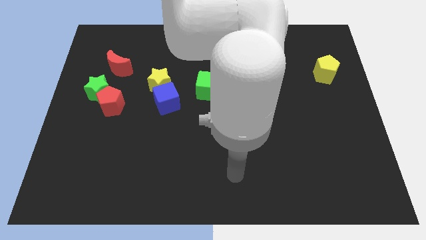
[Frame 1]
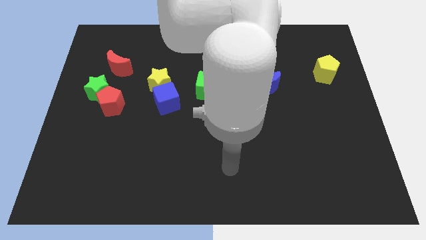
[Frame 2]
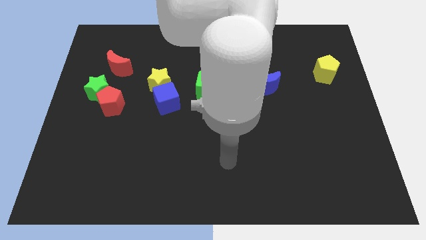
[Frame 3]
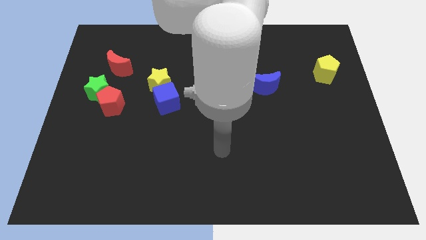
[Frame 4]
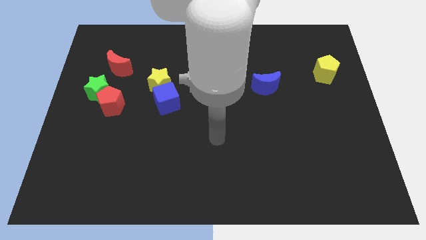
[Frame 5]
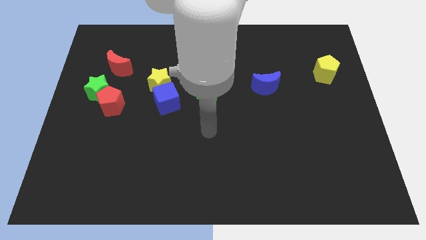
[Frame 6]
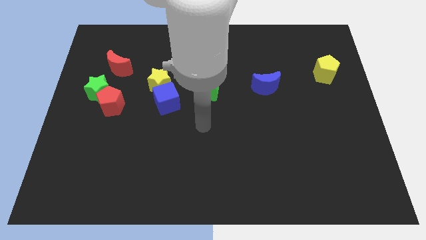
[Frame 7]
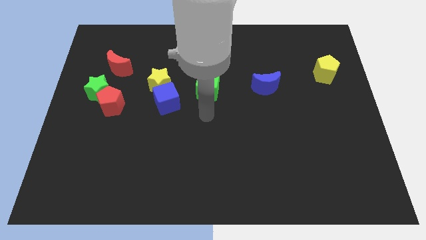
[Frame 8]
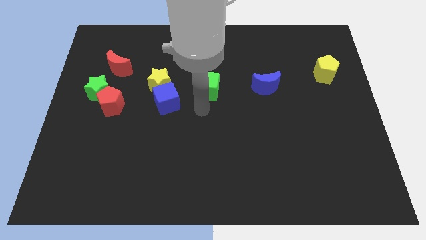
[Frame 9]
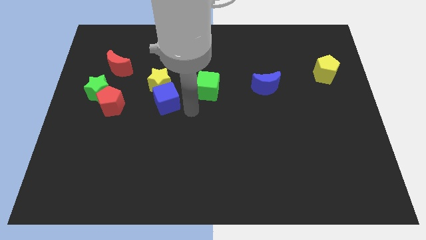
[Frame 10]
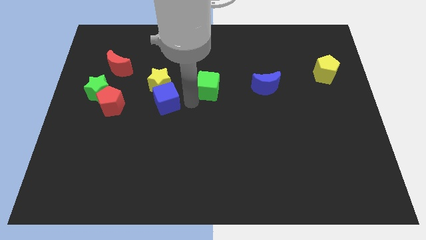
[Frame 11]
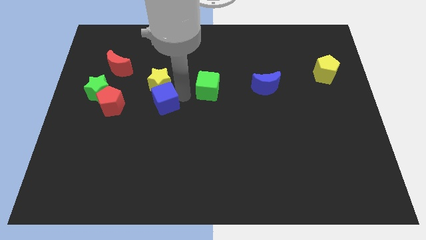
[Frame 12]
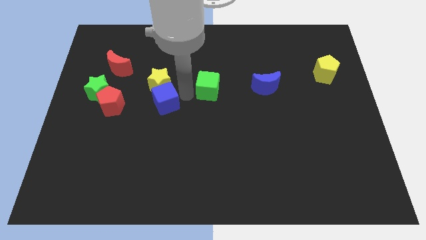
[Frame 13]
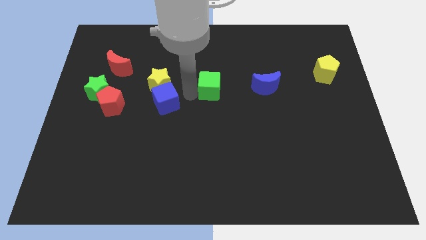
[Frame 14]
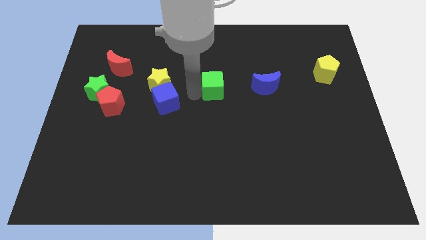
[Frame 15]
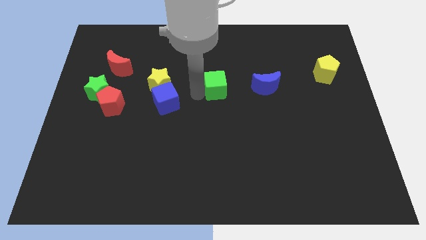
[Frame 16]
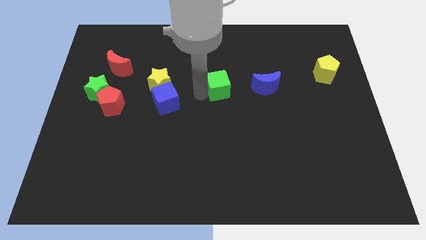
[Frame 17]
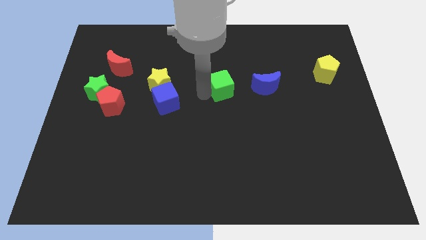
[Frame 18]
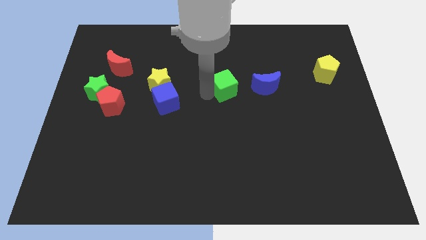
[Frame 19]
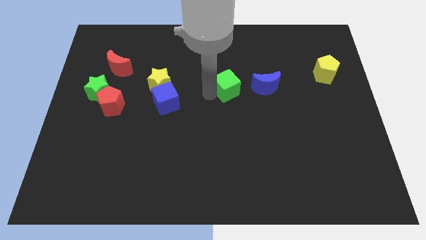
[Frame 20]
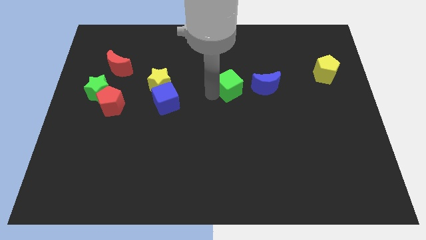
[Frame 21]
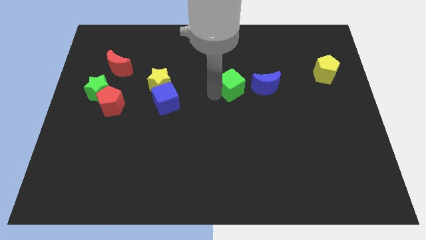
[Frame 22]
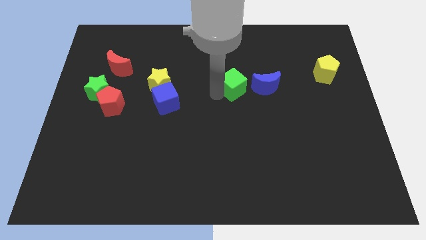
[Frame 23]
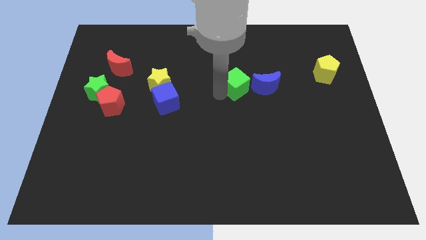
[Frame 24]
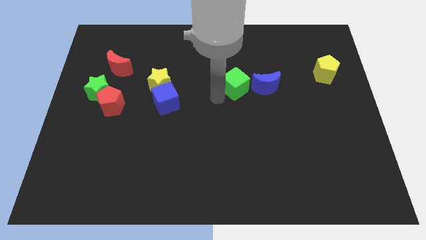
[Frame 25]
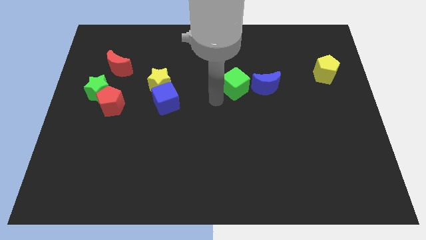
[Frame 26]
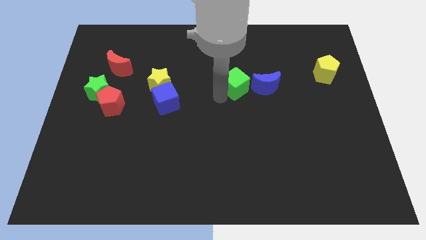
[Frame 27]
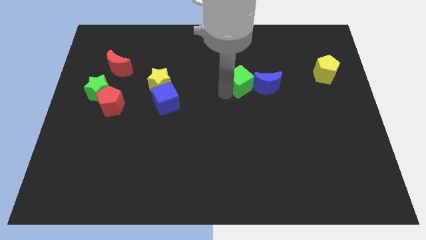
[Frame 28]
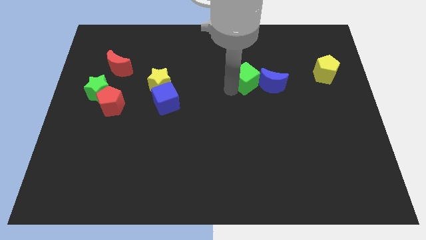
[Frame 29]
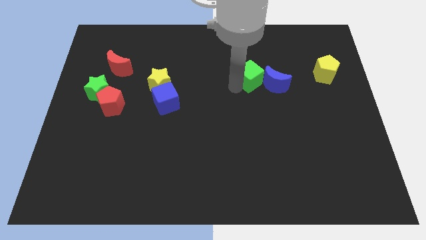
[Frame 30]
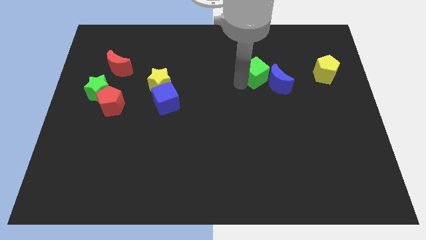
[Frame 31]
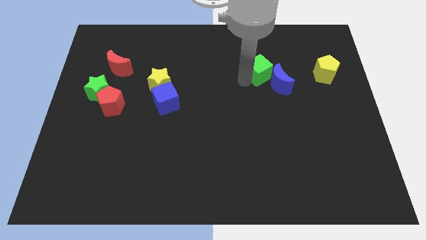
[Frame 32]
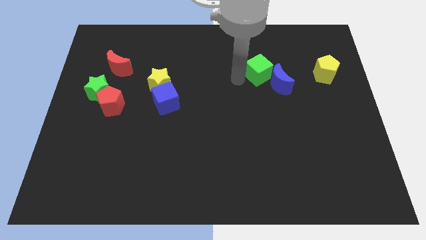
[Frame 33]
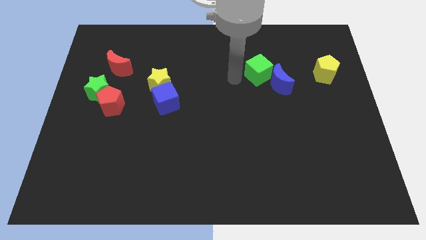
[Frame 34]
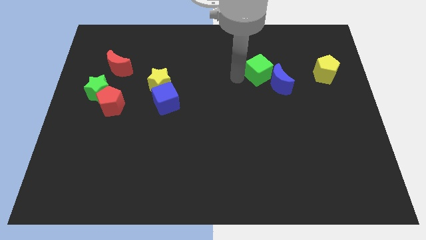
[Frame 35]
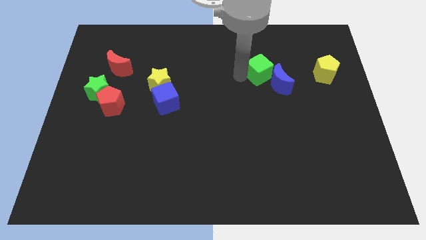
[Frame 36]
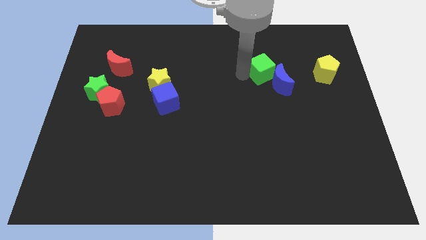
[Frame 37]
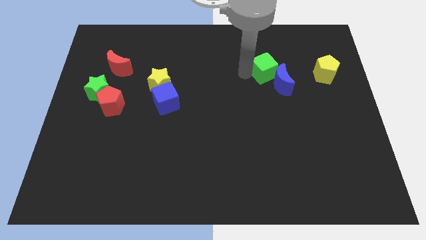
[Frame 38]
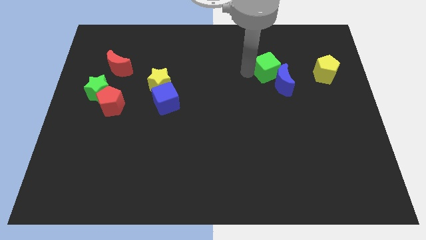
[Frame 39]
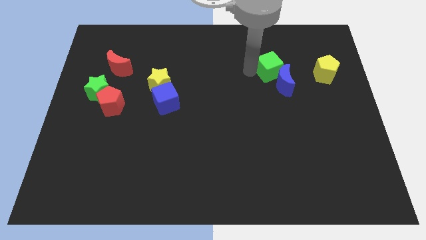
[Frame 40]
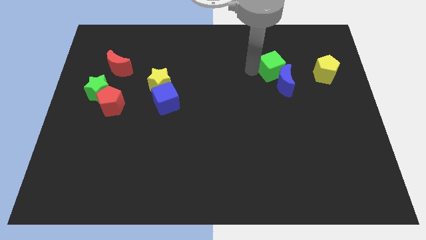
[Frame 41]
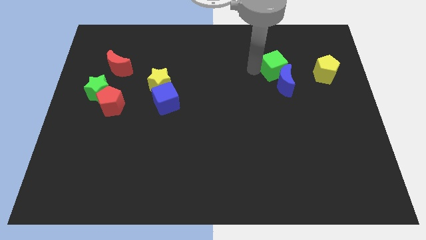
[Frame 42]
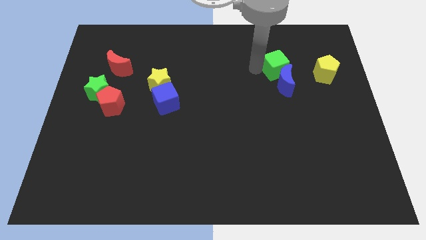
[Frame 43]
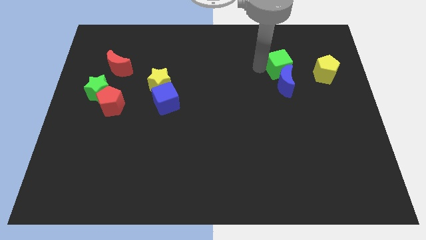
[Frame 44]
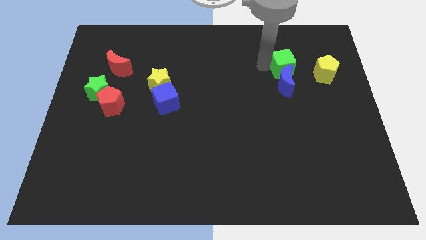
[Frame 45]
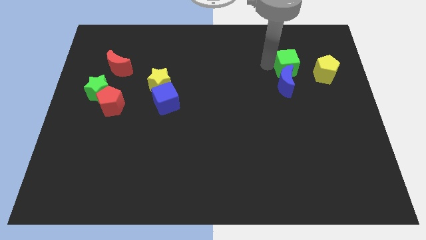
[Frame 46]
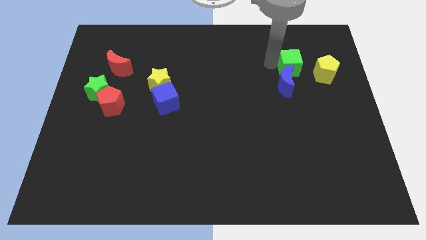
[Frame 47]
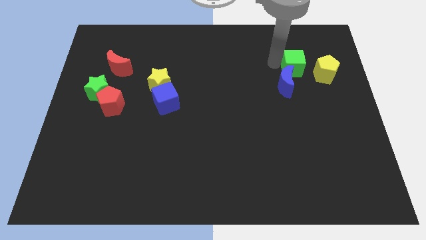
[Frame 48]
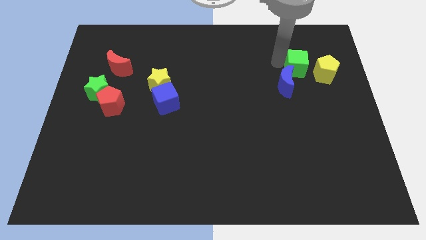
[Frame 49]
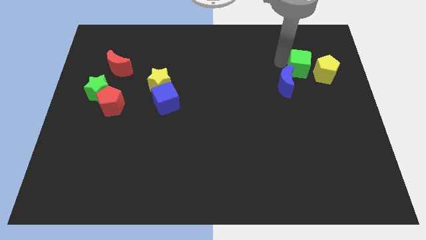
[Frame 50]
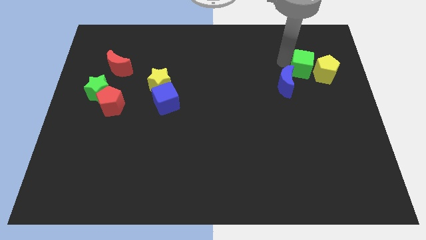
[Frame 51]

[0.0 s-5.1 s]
slide the green cube next to the yellow pentagon

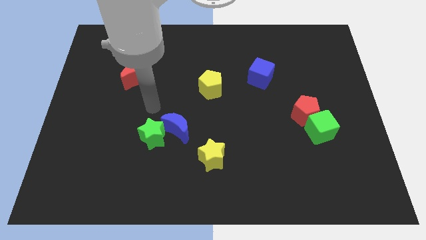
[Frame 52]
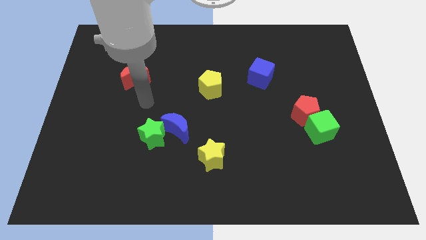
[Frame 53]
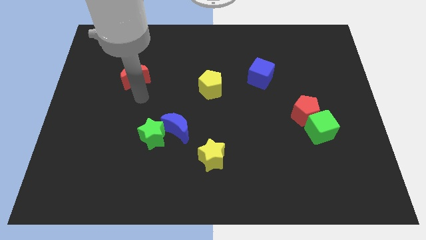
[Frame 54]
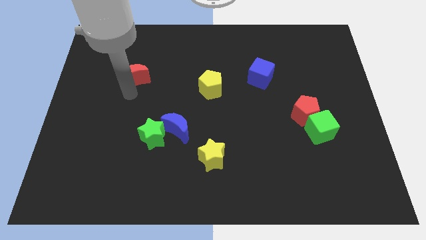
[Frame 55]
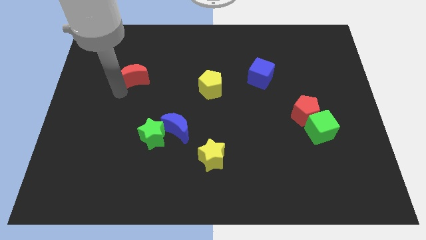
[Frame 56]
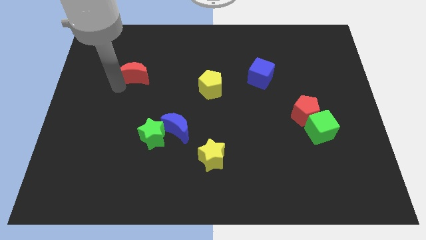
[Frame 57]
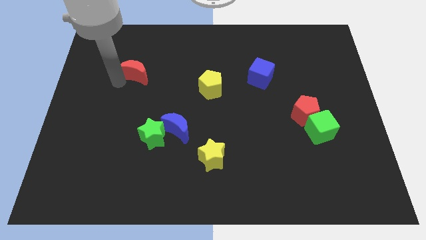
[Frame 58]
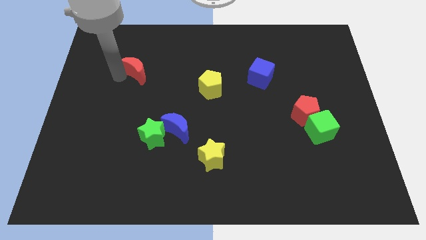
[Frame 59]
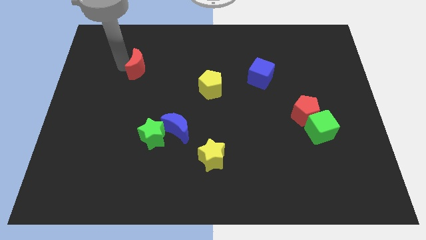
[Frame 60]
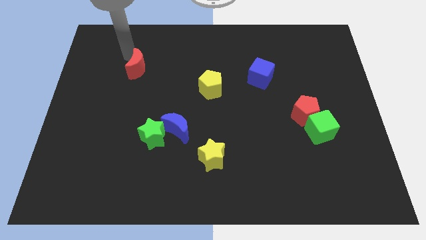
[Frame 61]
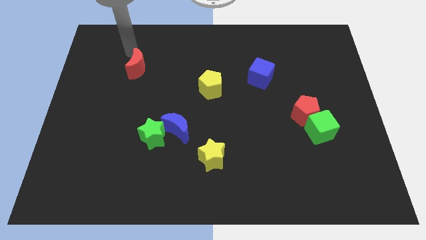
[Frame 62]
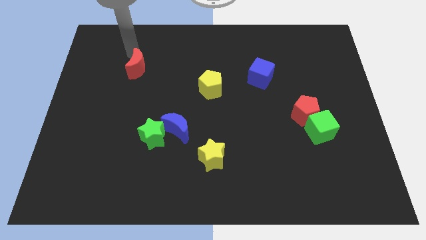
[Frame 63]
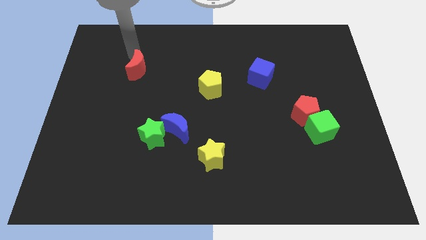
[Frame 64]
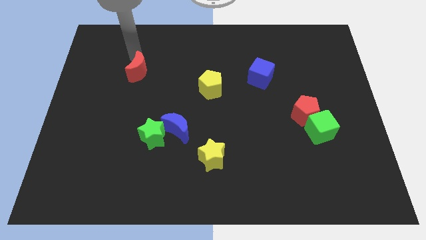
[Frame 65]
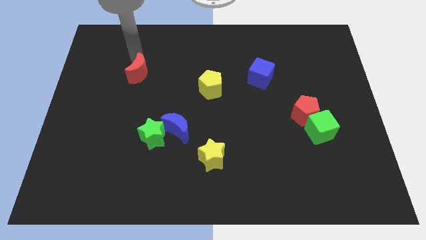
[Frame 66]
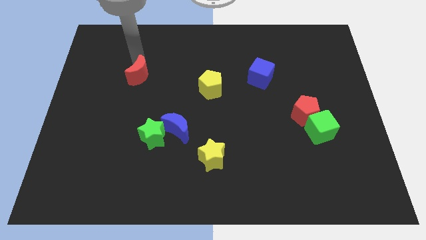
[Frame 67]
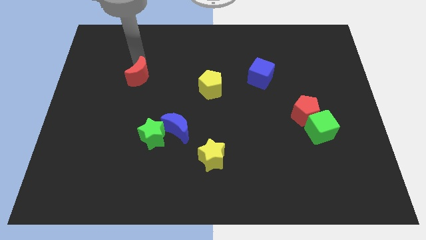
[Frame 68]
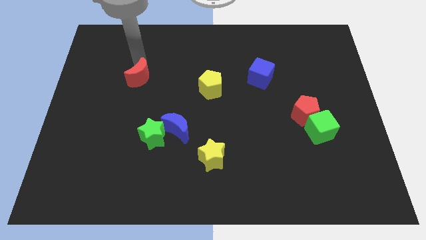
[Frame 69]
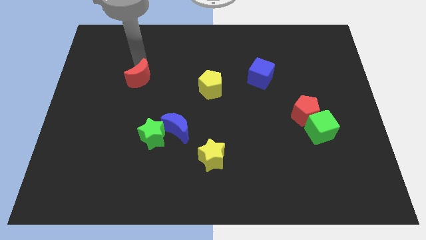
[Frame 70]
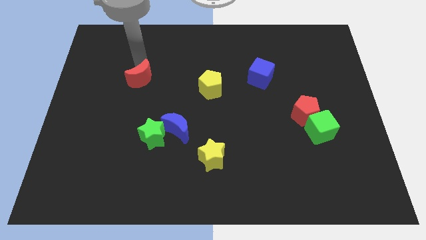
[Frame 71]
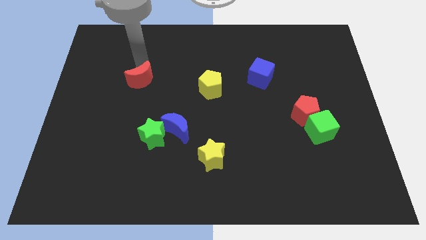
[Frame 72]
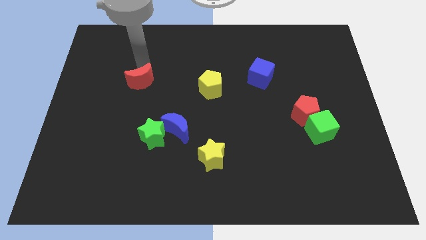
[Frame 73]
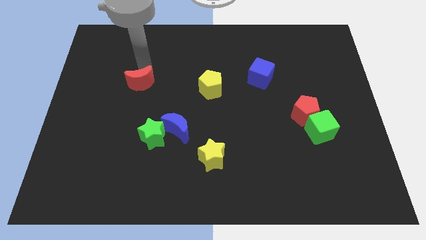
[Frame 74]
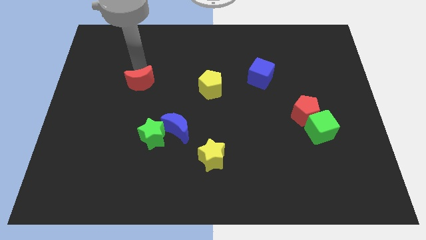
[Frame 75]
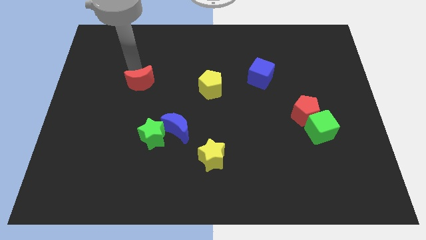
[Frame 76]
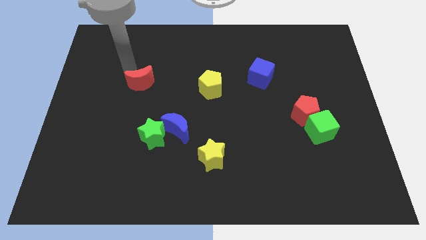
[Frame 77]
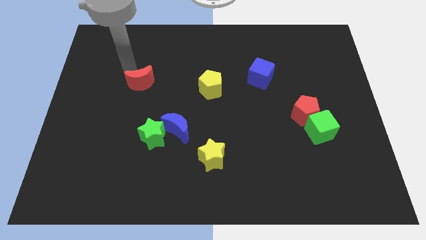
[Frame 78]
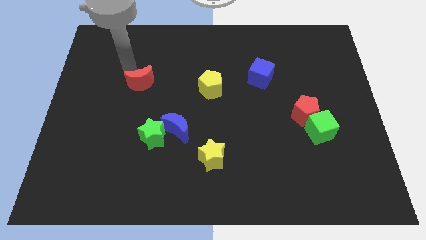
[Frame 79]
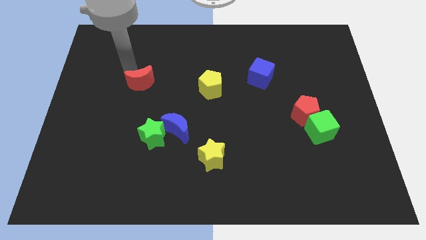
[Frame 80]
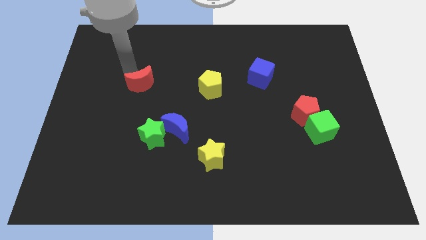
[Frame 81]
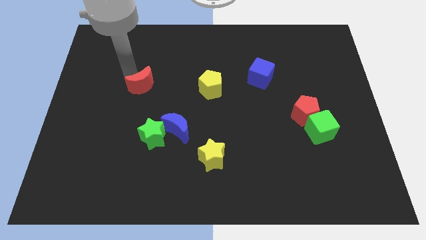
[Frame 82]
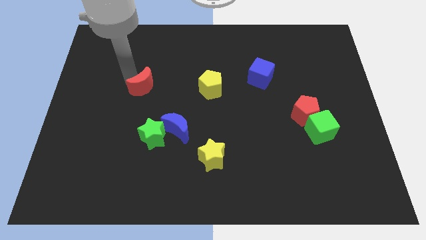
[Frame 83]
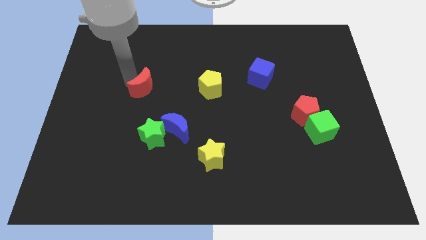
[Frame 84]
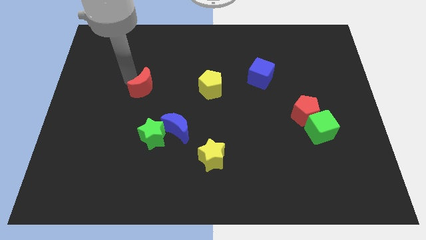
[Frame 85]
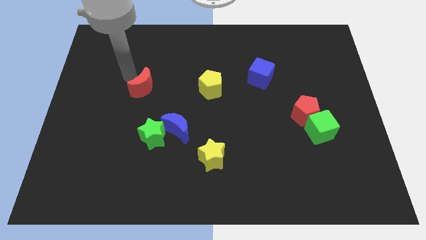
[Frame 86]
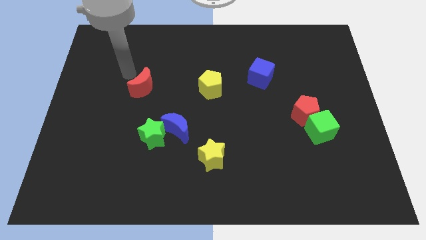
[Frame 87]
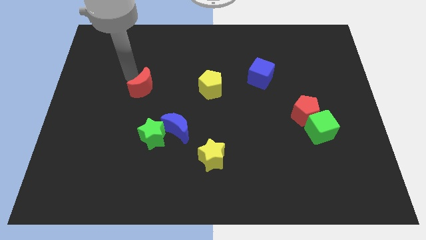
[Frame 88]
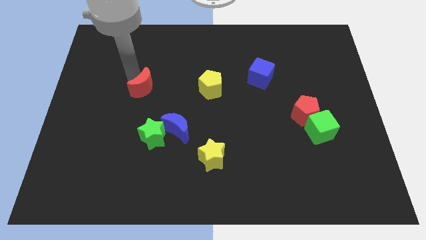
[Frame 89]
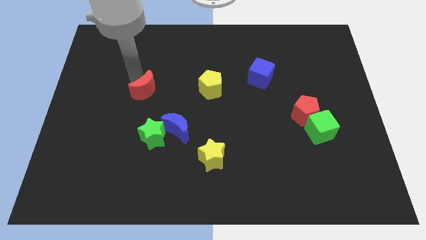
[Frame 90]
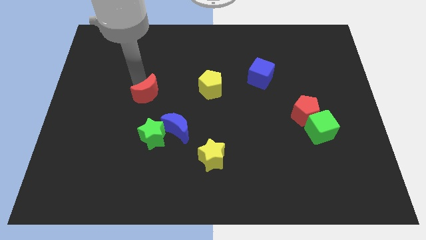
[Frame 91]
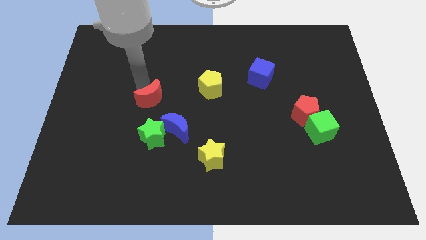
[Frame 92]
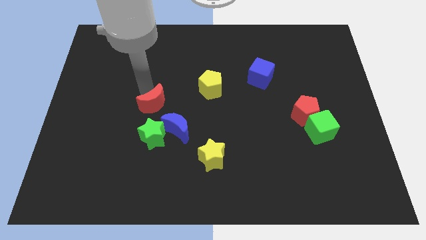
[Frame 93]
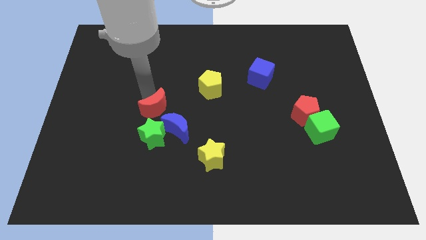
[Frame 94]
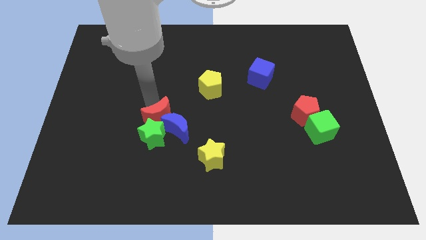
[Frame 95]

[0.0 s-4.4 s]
push the red moon close to the blue moon
